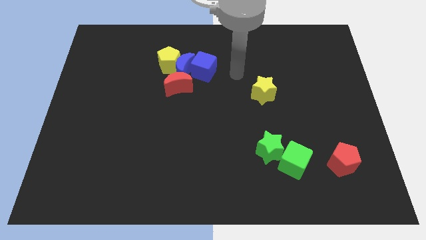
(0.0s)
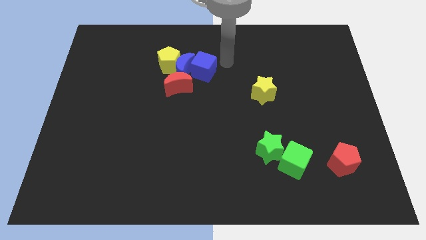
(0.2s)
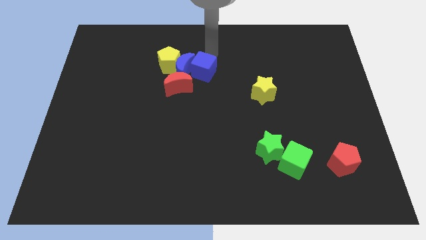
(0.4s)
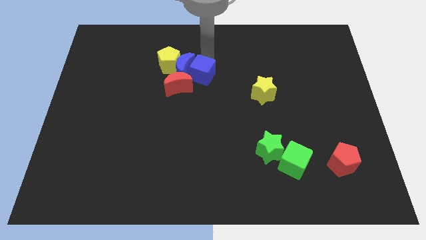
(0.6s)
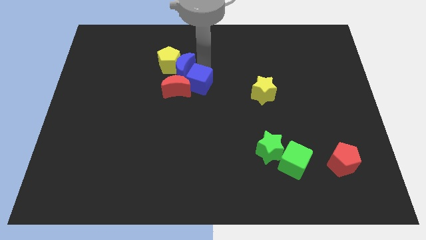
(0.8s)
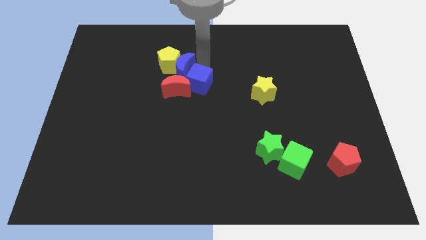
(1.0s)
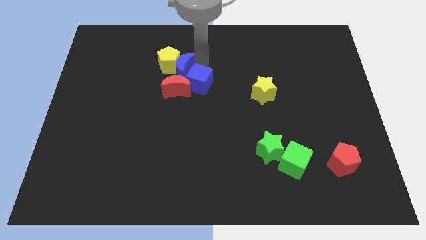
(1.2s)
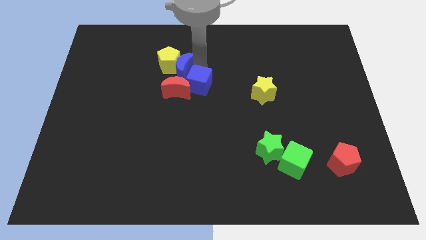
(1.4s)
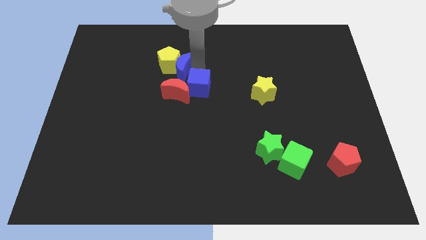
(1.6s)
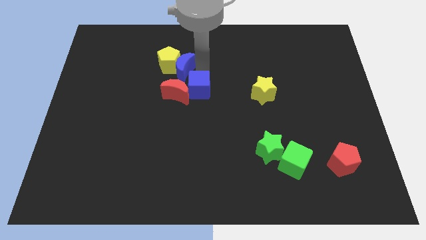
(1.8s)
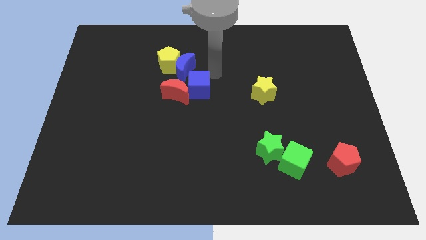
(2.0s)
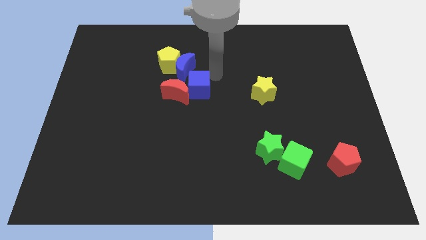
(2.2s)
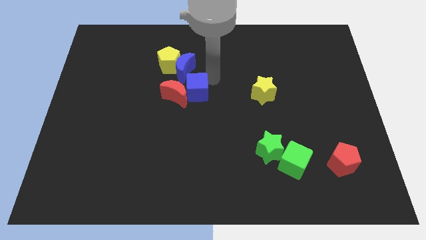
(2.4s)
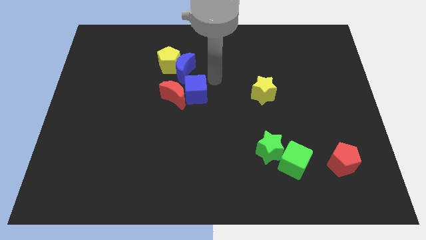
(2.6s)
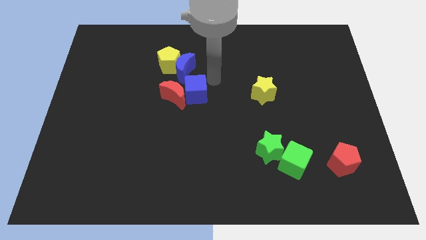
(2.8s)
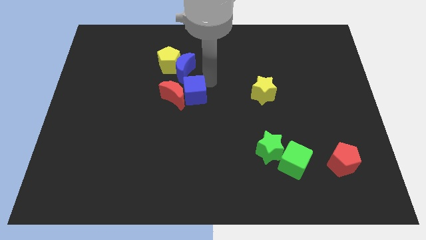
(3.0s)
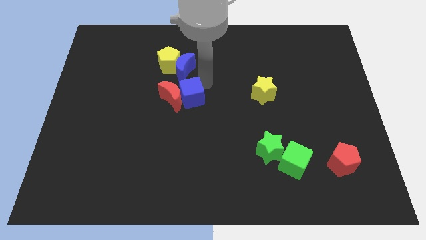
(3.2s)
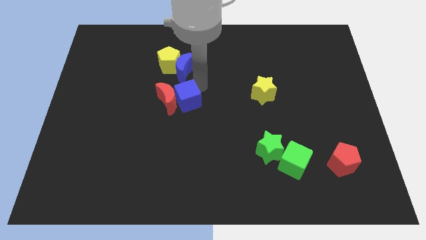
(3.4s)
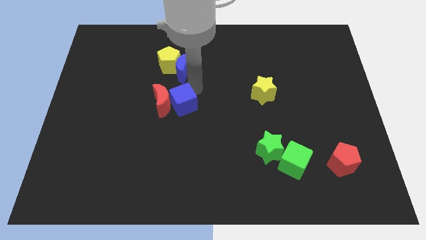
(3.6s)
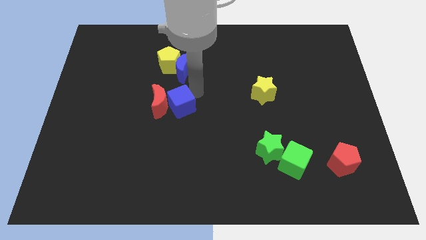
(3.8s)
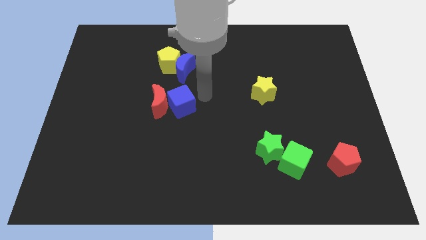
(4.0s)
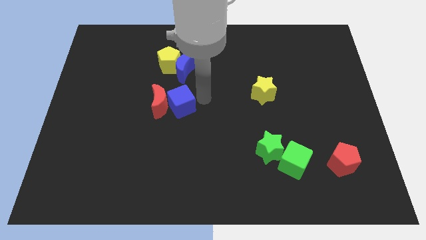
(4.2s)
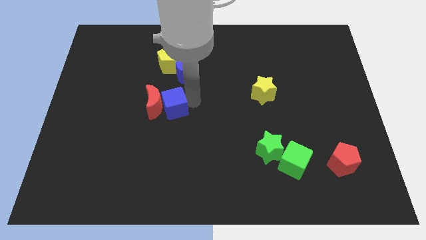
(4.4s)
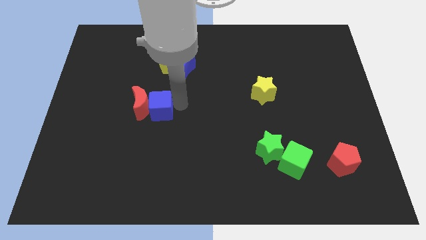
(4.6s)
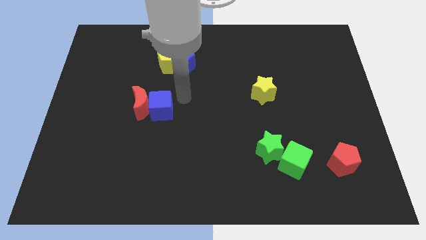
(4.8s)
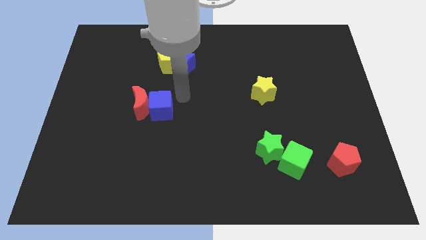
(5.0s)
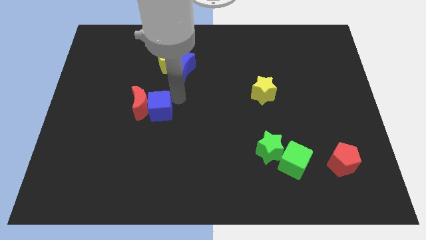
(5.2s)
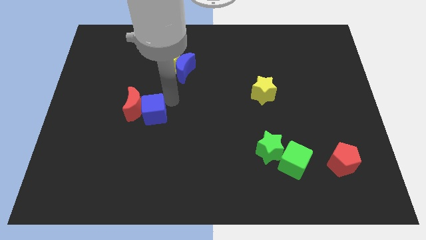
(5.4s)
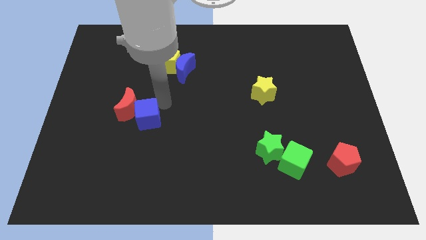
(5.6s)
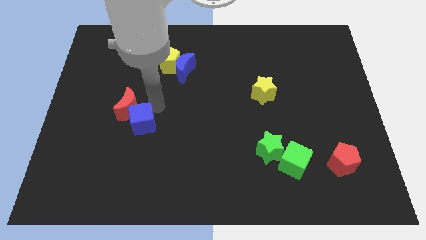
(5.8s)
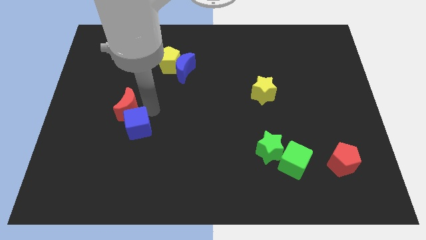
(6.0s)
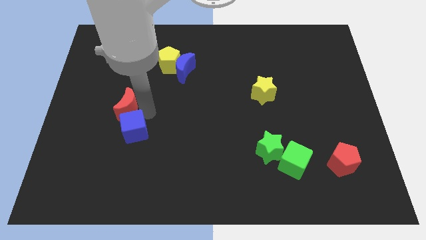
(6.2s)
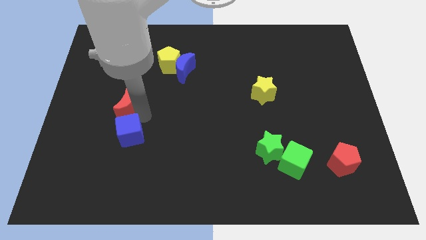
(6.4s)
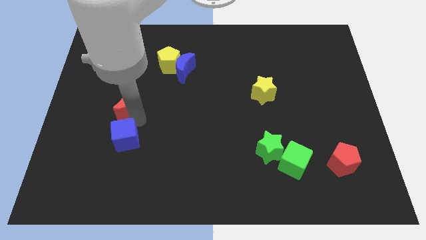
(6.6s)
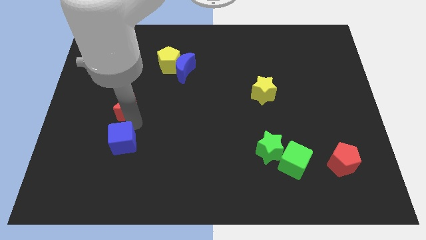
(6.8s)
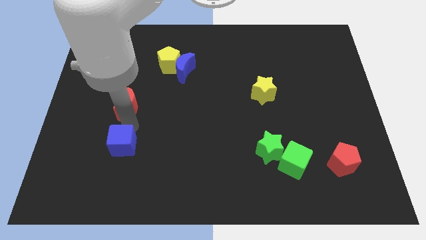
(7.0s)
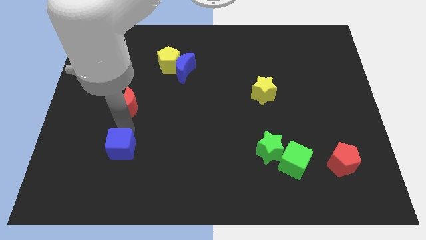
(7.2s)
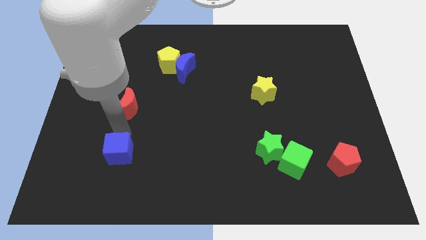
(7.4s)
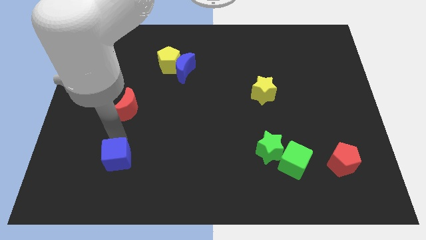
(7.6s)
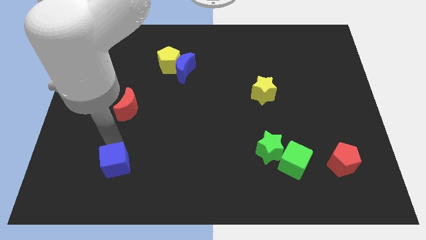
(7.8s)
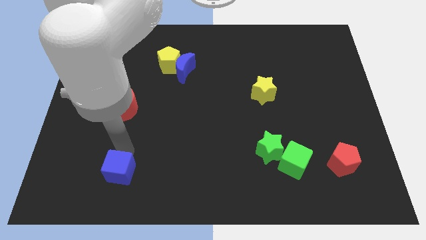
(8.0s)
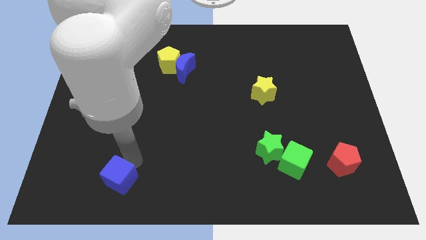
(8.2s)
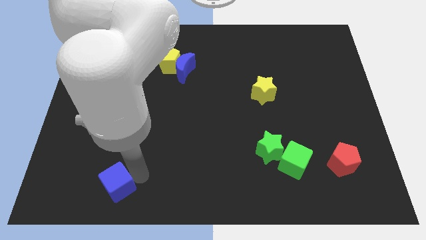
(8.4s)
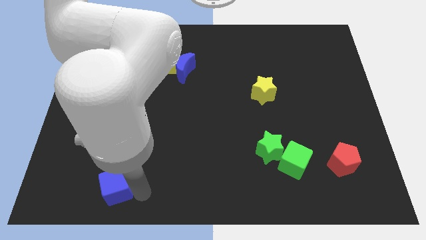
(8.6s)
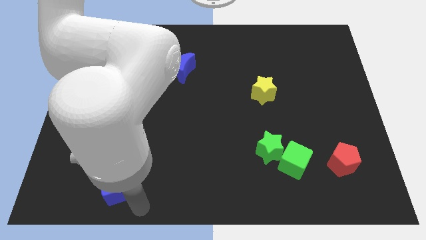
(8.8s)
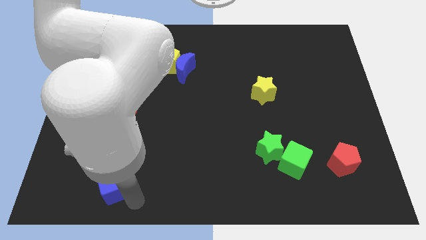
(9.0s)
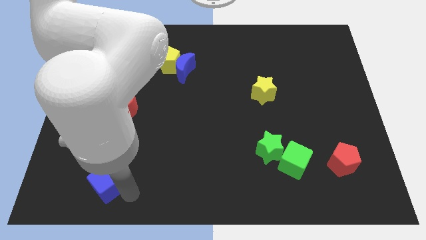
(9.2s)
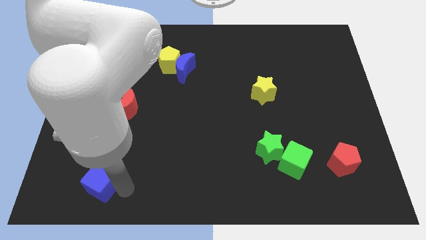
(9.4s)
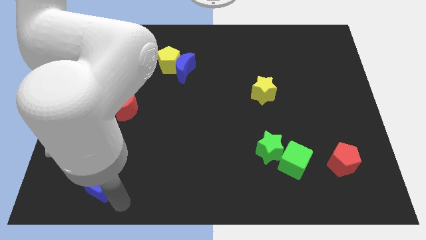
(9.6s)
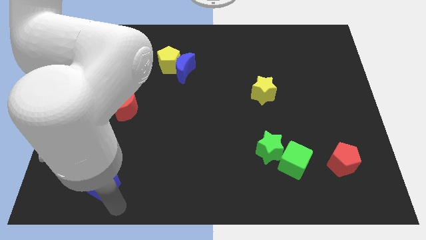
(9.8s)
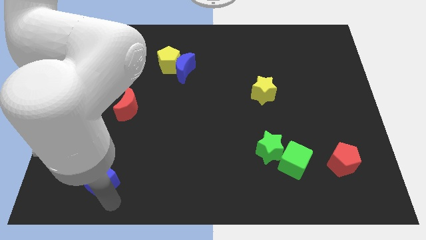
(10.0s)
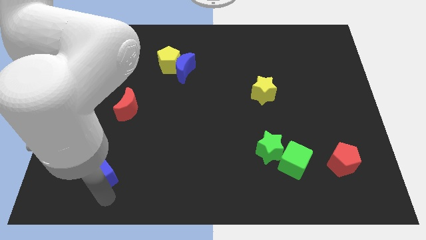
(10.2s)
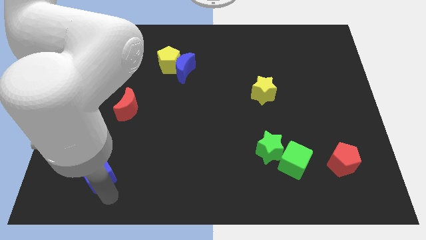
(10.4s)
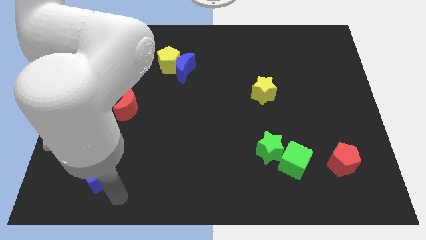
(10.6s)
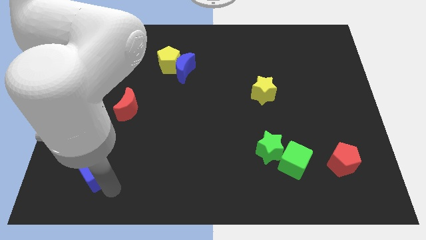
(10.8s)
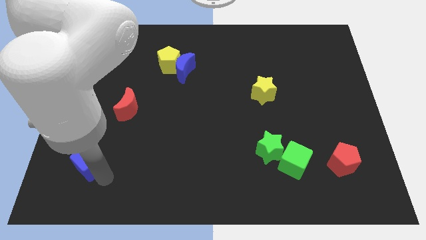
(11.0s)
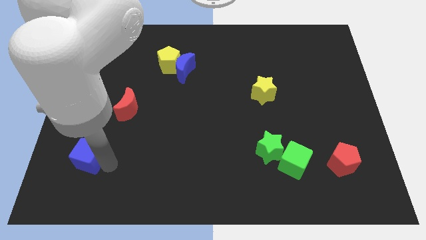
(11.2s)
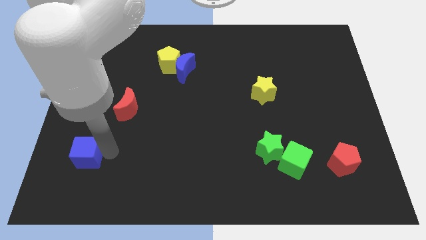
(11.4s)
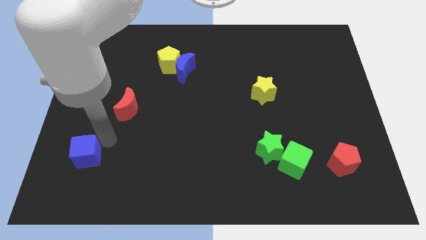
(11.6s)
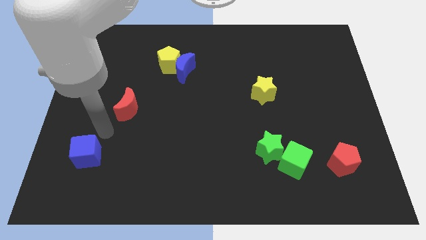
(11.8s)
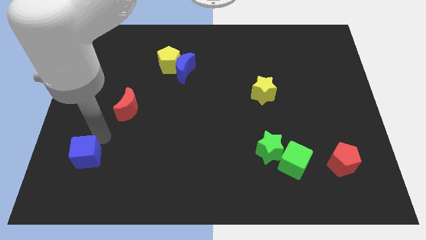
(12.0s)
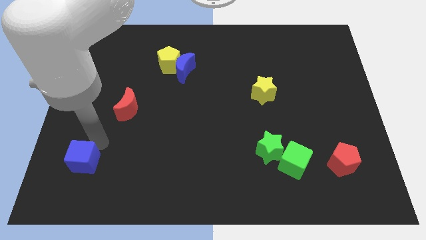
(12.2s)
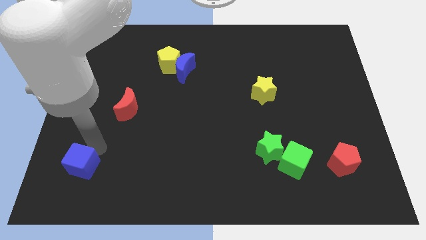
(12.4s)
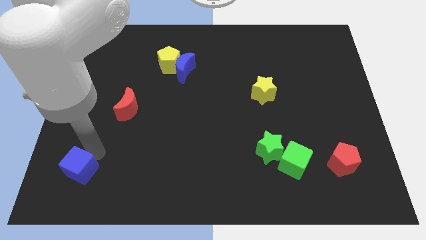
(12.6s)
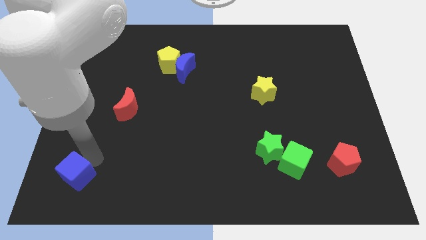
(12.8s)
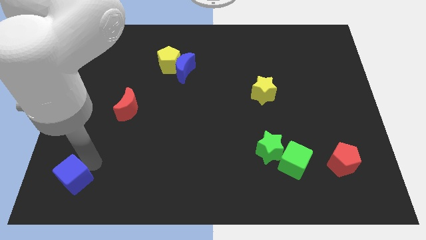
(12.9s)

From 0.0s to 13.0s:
slide the blue cube to the bottom left

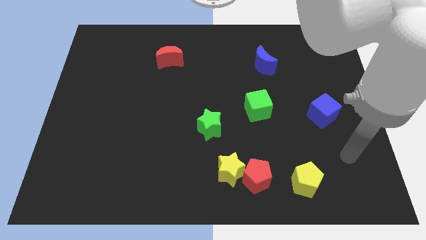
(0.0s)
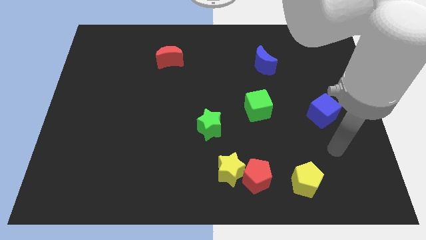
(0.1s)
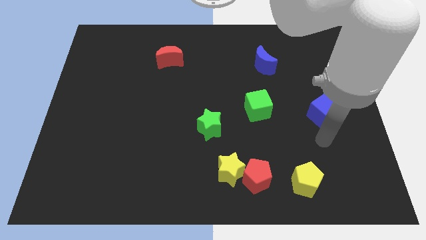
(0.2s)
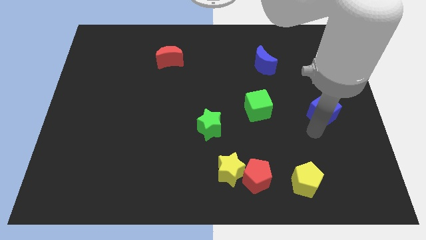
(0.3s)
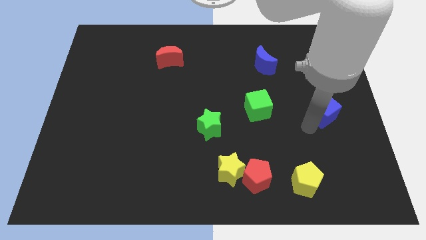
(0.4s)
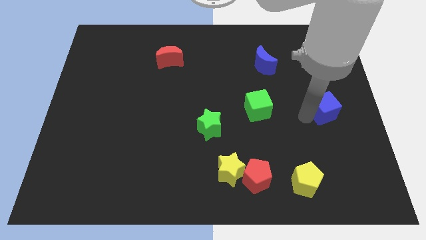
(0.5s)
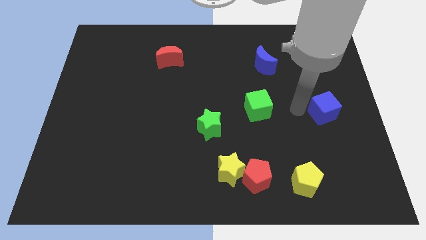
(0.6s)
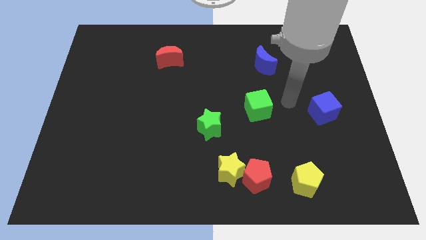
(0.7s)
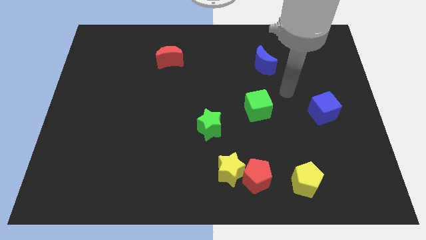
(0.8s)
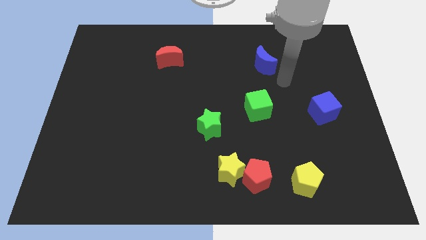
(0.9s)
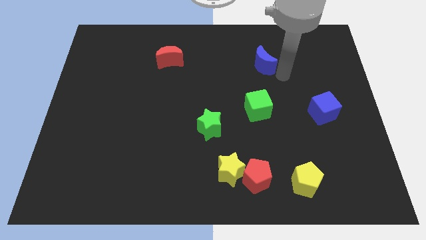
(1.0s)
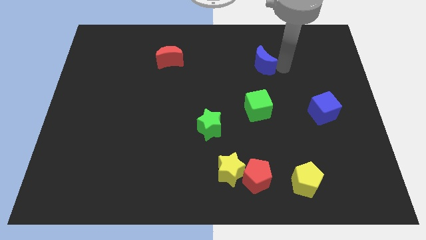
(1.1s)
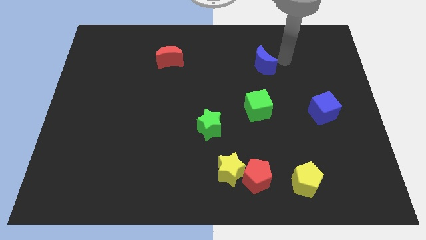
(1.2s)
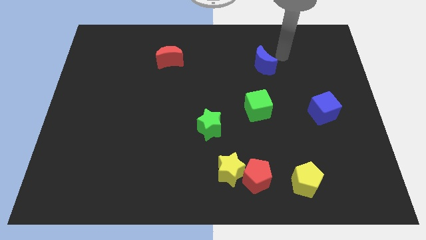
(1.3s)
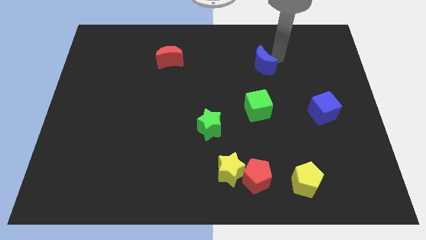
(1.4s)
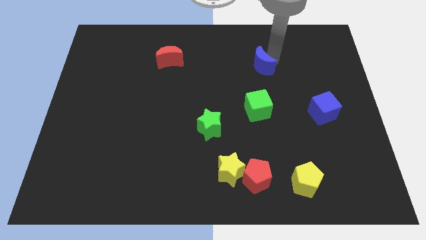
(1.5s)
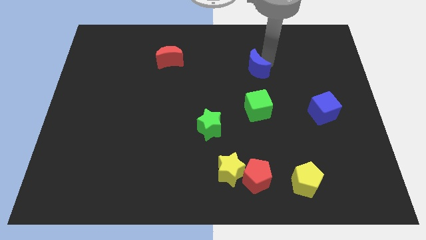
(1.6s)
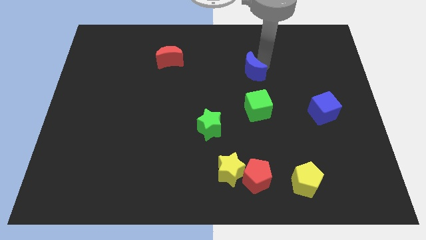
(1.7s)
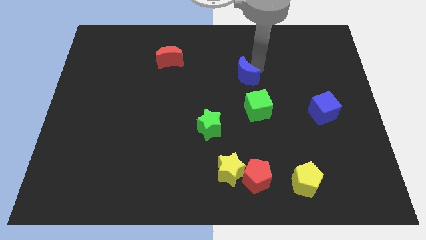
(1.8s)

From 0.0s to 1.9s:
slide the blue moon to the center of the board
